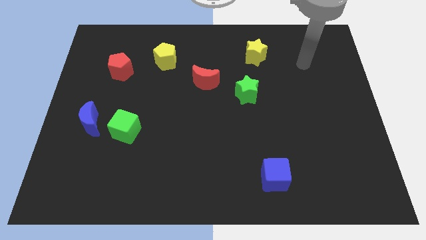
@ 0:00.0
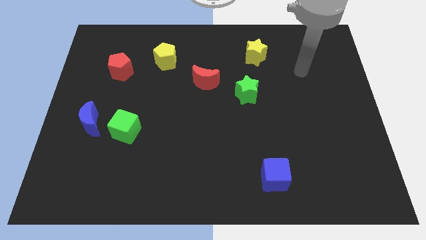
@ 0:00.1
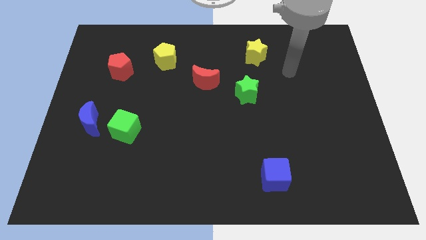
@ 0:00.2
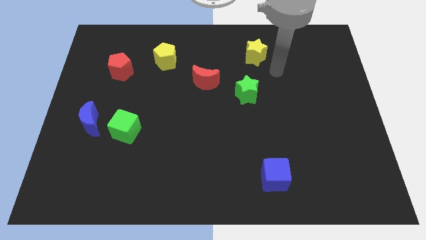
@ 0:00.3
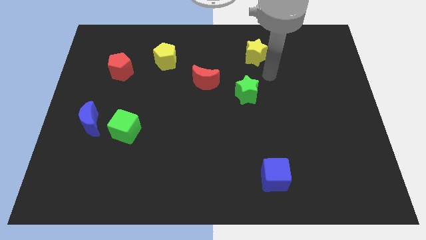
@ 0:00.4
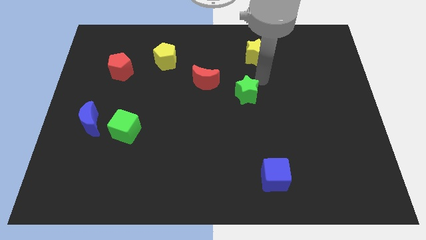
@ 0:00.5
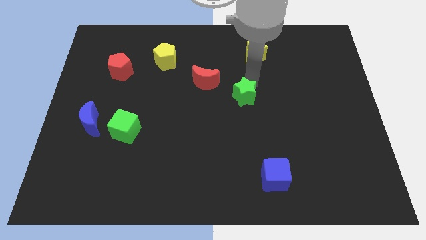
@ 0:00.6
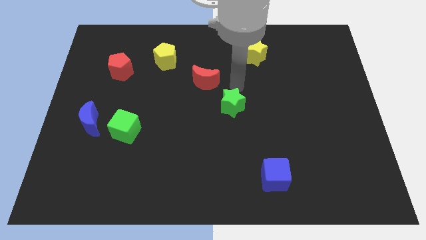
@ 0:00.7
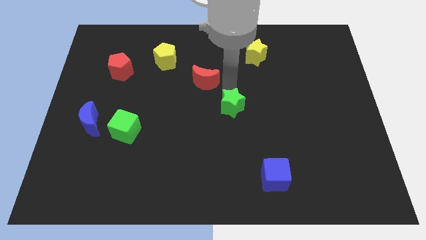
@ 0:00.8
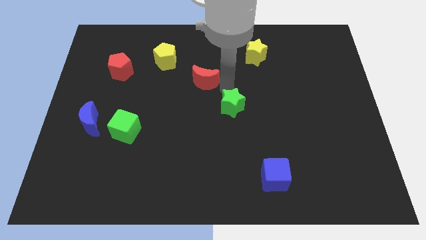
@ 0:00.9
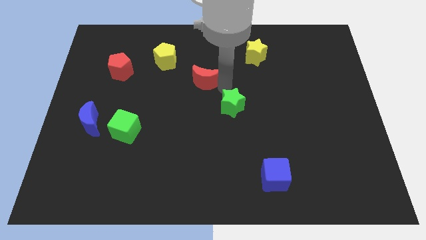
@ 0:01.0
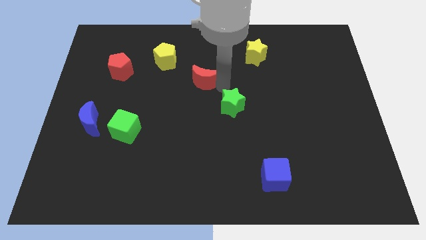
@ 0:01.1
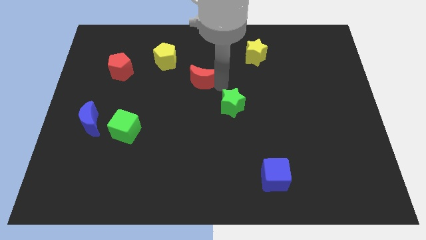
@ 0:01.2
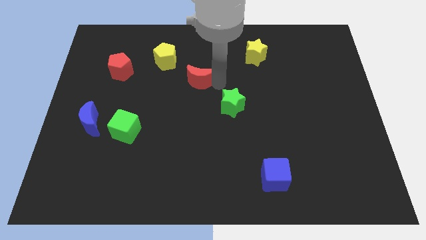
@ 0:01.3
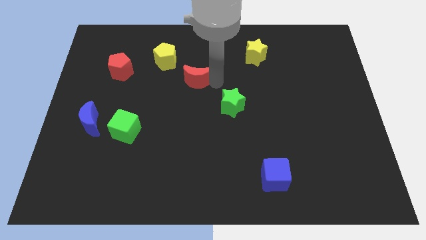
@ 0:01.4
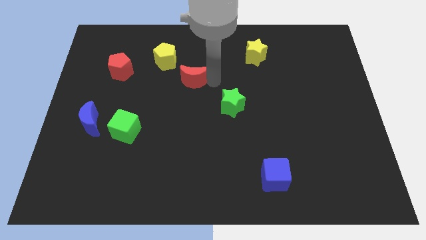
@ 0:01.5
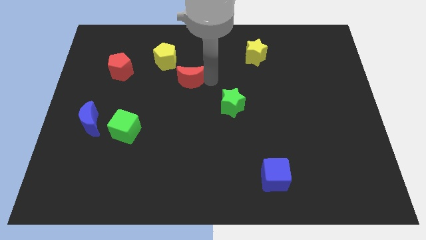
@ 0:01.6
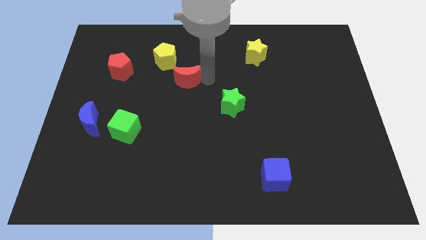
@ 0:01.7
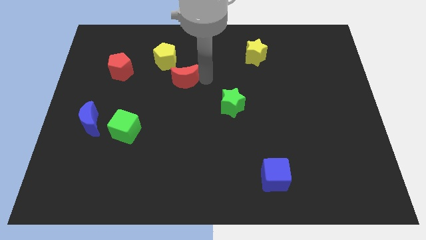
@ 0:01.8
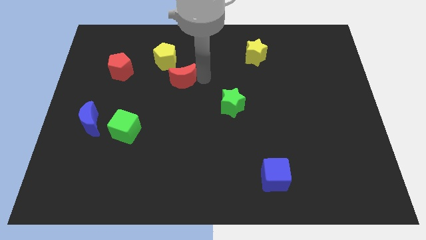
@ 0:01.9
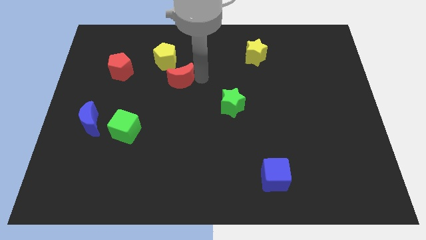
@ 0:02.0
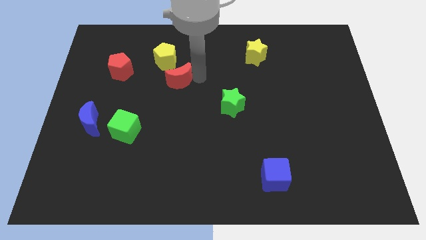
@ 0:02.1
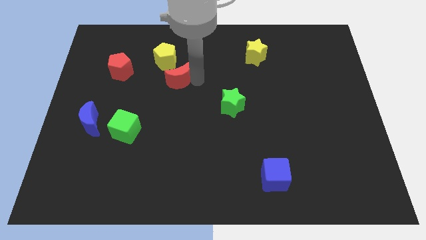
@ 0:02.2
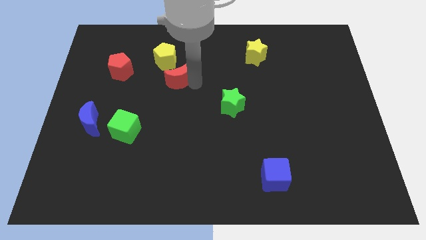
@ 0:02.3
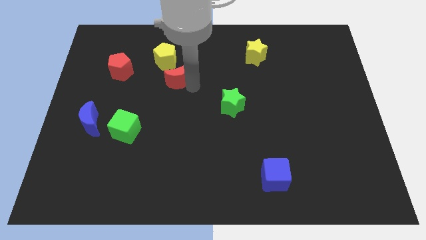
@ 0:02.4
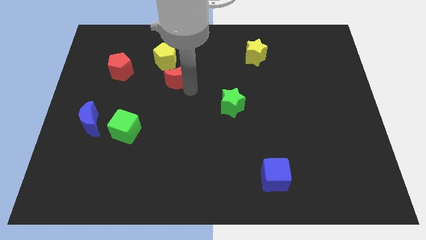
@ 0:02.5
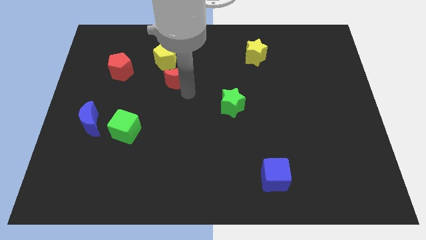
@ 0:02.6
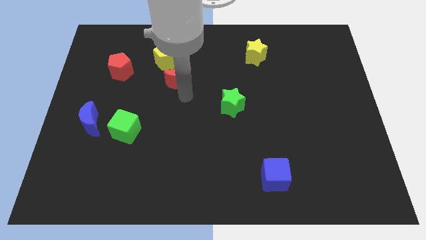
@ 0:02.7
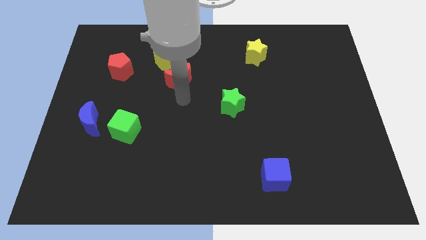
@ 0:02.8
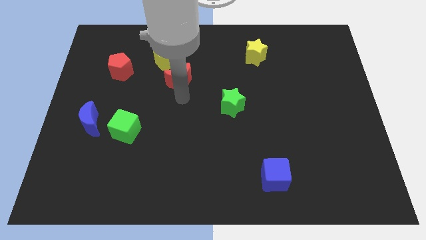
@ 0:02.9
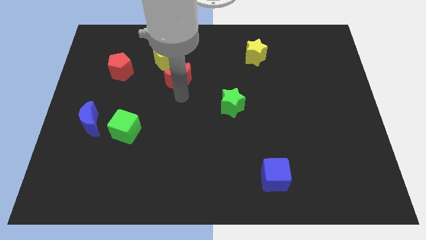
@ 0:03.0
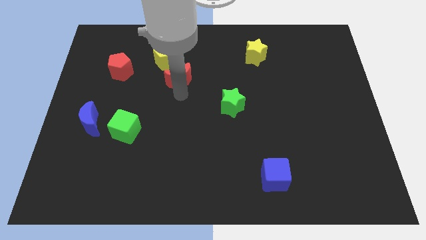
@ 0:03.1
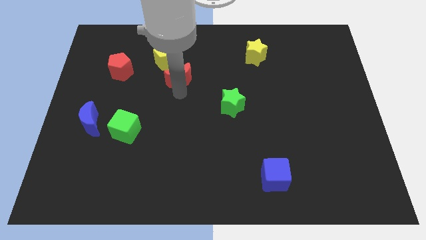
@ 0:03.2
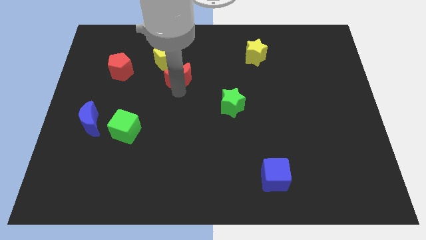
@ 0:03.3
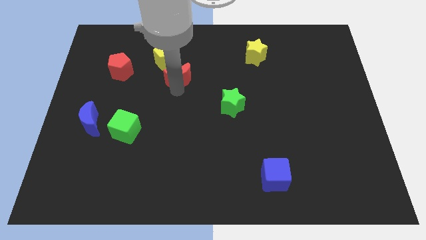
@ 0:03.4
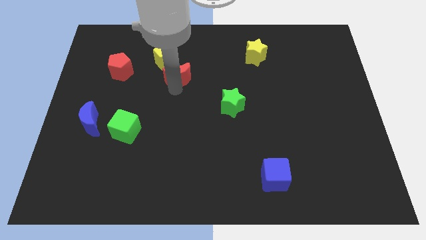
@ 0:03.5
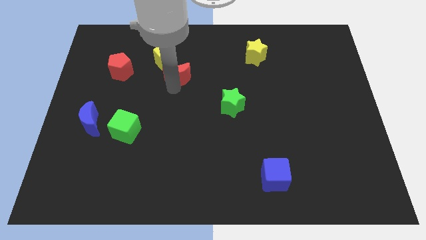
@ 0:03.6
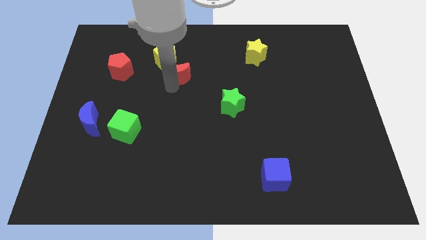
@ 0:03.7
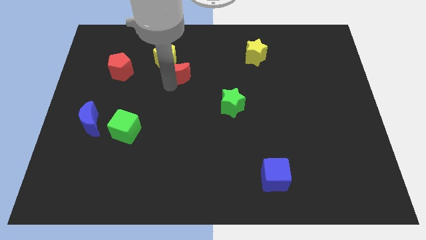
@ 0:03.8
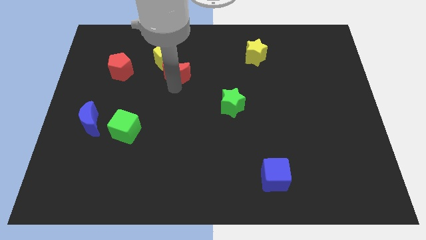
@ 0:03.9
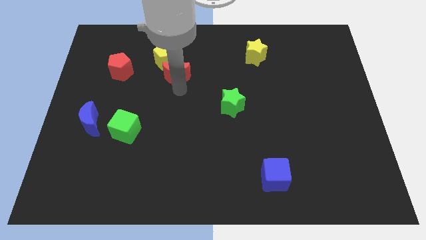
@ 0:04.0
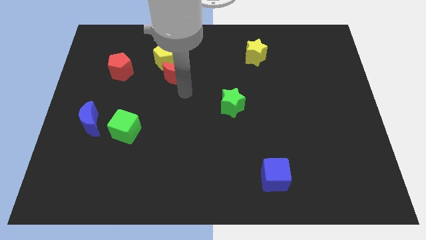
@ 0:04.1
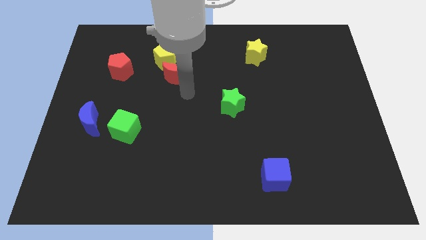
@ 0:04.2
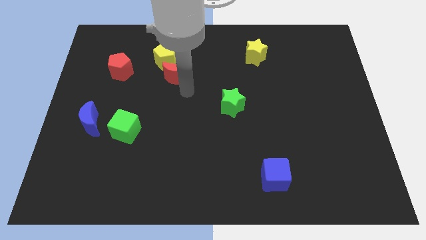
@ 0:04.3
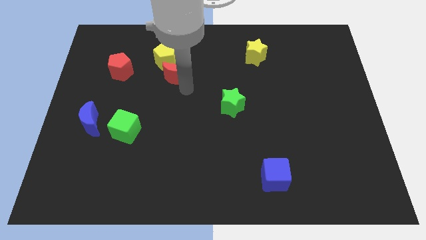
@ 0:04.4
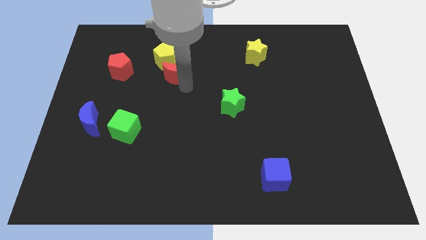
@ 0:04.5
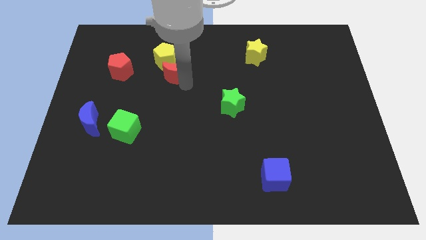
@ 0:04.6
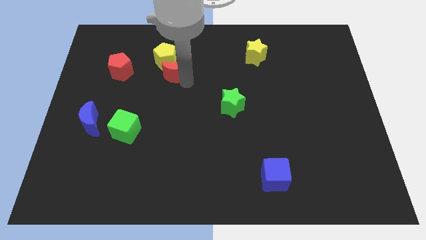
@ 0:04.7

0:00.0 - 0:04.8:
move the red moon towards the yellow pentagon

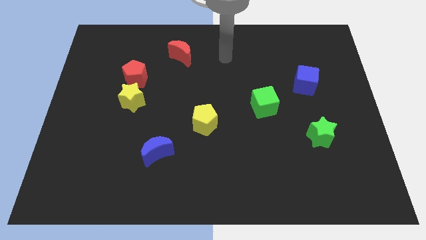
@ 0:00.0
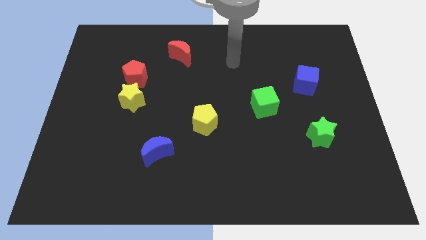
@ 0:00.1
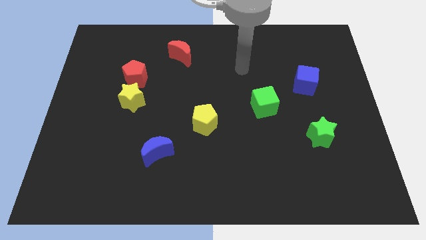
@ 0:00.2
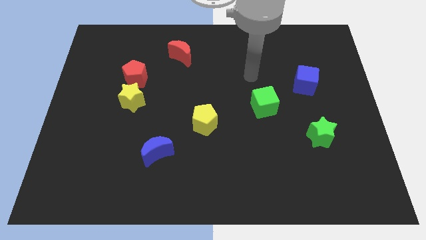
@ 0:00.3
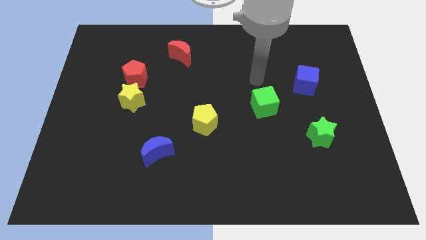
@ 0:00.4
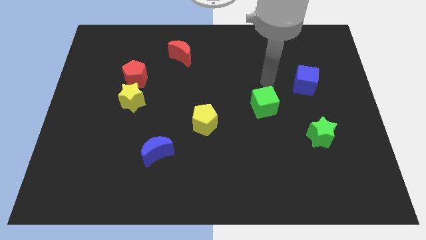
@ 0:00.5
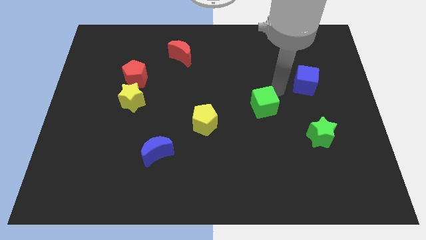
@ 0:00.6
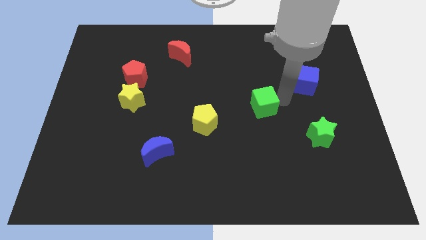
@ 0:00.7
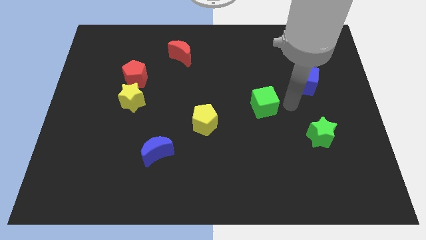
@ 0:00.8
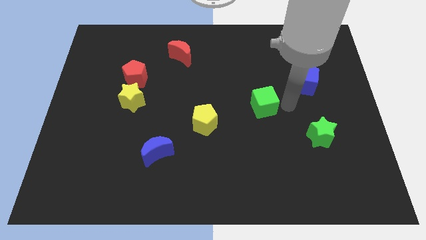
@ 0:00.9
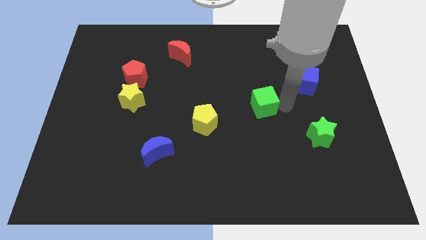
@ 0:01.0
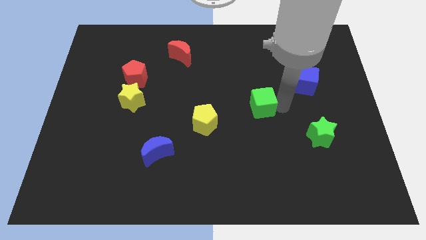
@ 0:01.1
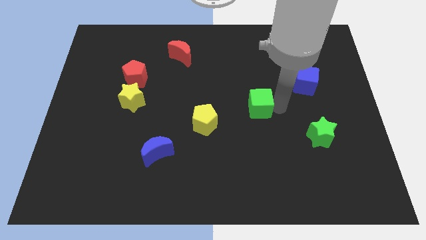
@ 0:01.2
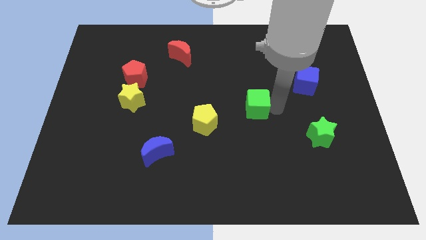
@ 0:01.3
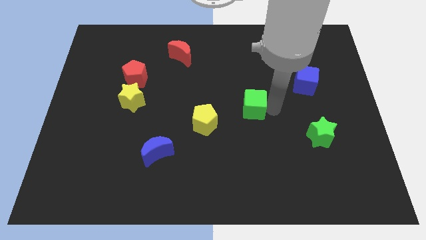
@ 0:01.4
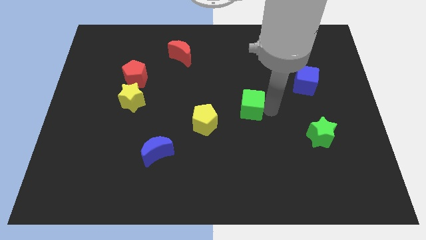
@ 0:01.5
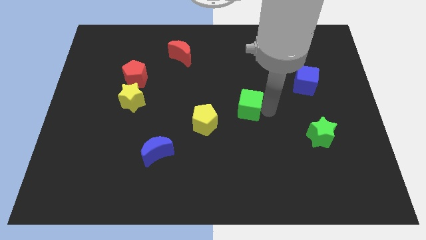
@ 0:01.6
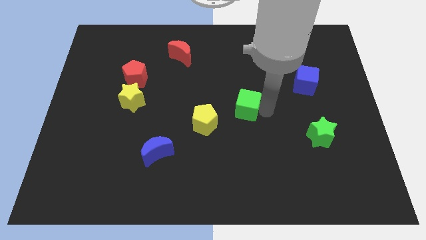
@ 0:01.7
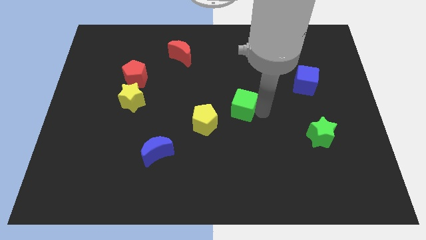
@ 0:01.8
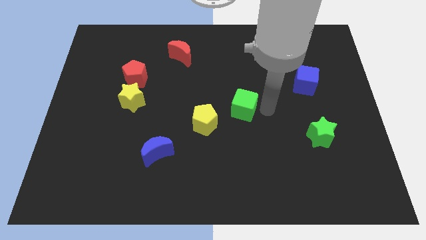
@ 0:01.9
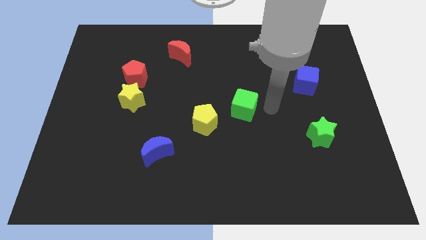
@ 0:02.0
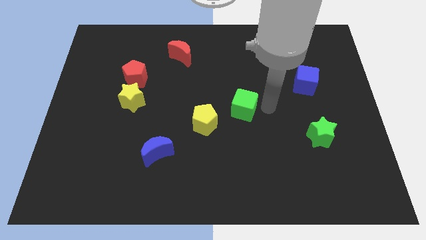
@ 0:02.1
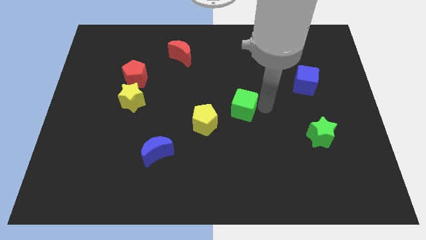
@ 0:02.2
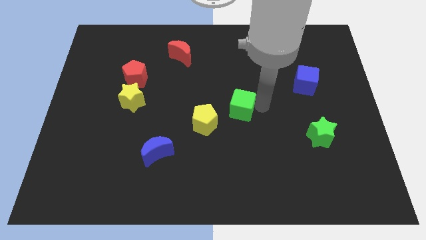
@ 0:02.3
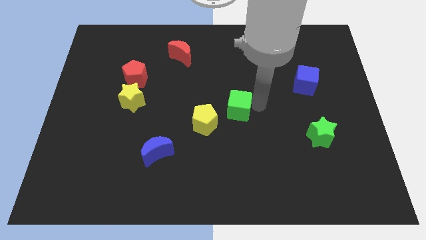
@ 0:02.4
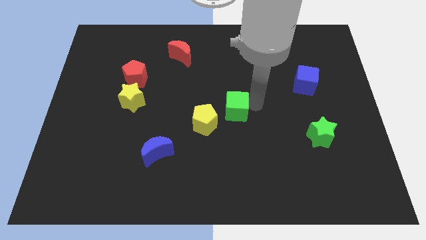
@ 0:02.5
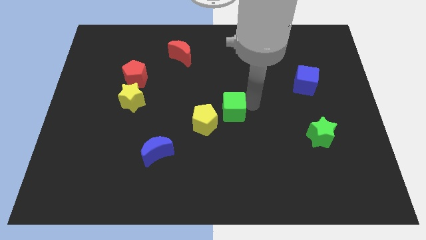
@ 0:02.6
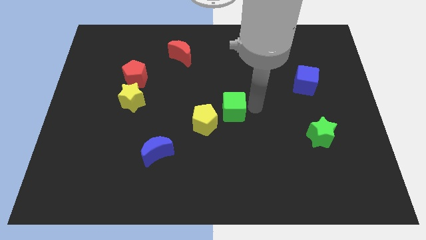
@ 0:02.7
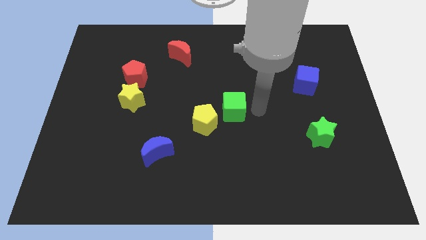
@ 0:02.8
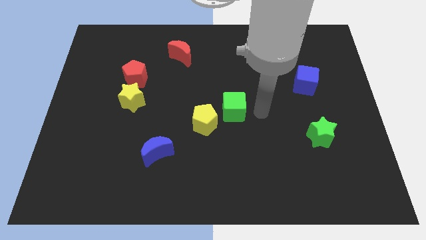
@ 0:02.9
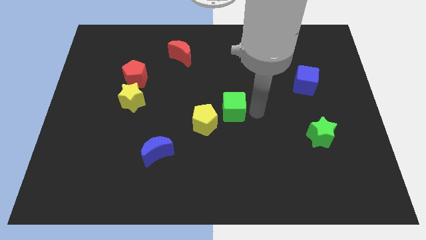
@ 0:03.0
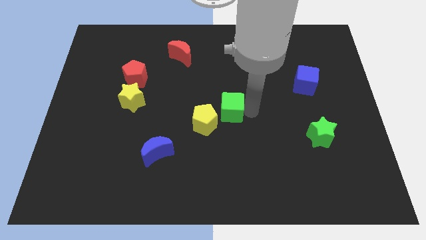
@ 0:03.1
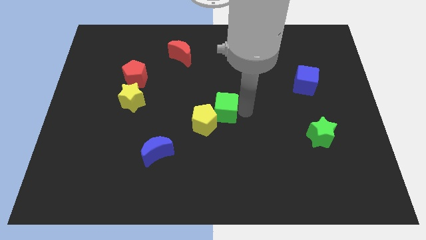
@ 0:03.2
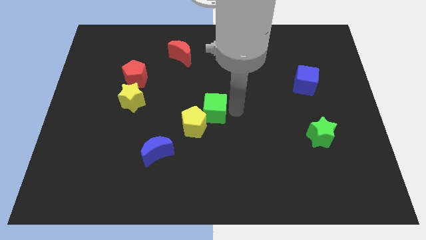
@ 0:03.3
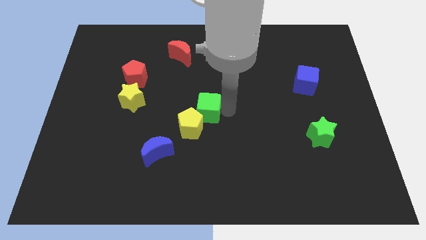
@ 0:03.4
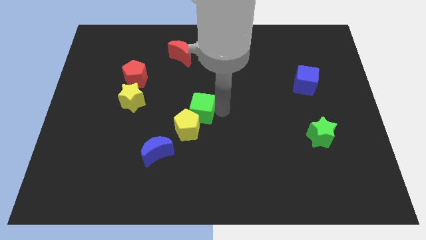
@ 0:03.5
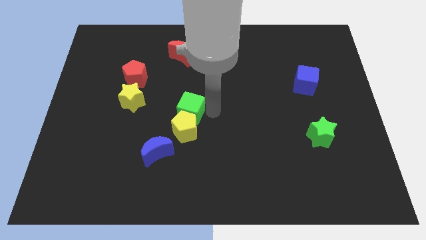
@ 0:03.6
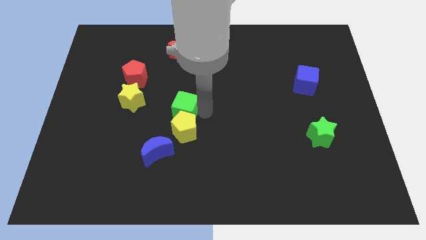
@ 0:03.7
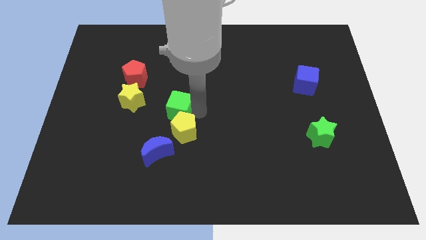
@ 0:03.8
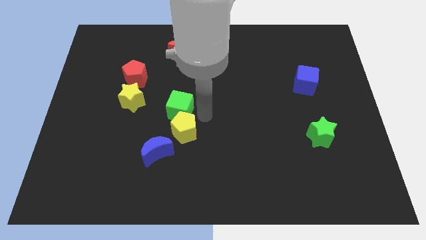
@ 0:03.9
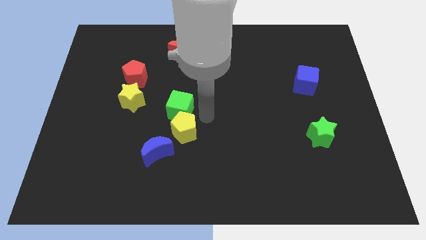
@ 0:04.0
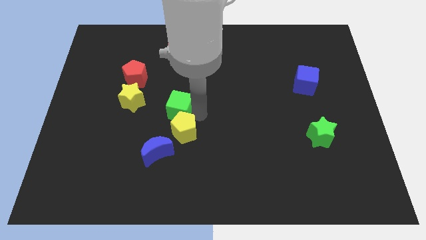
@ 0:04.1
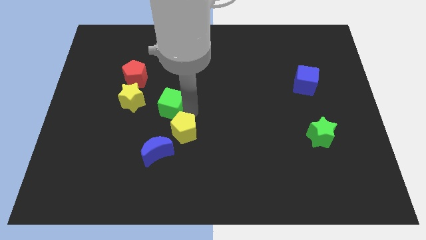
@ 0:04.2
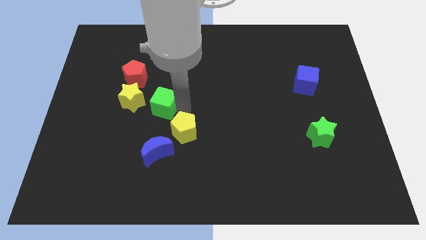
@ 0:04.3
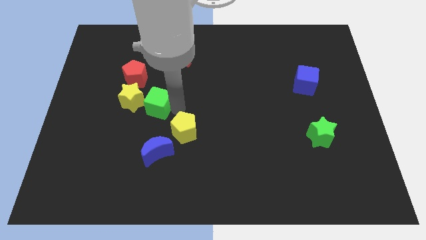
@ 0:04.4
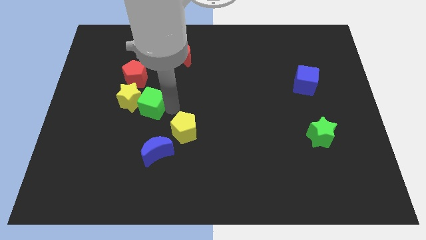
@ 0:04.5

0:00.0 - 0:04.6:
push the green cube next to the yellow star
